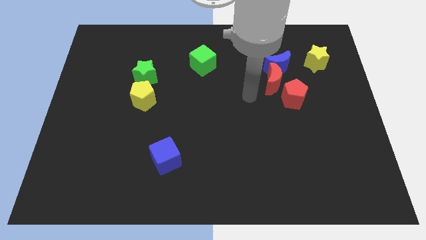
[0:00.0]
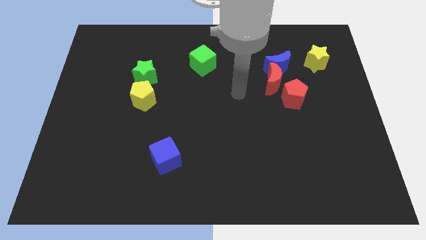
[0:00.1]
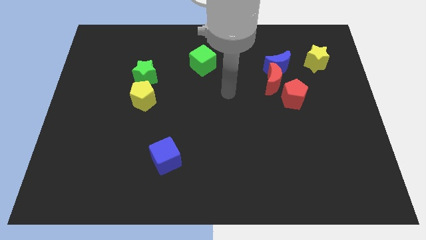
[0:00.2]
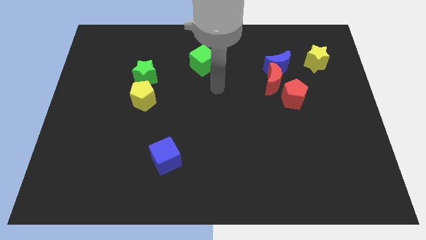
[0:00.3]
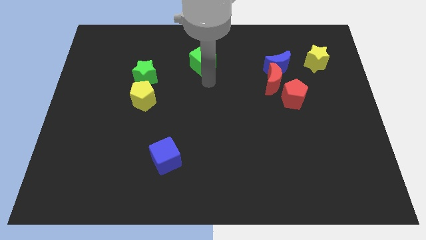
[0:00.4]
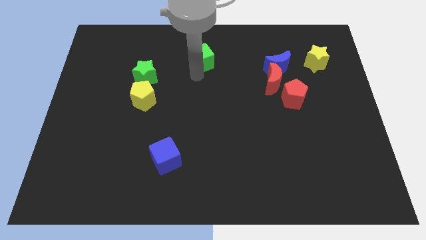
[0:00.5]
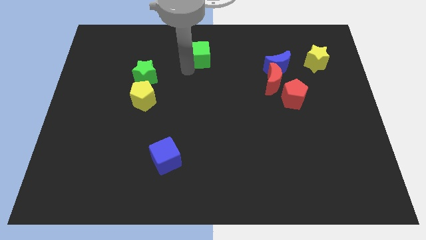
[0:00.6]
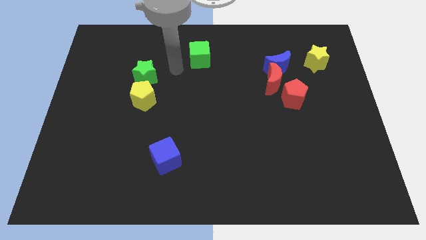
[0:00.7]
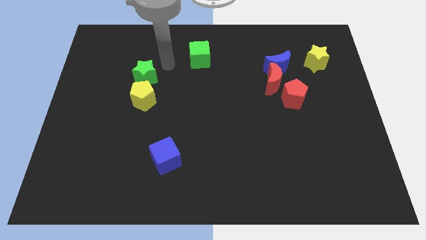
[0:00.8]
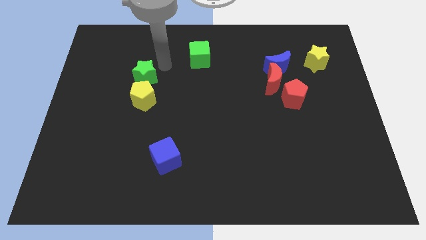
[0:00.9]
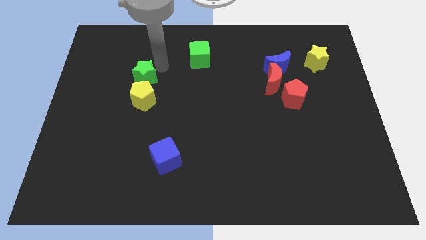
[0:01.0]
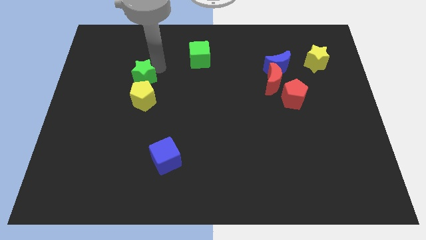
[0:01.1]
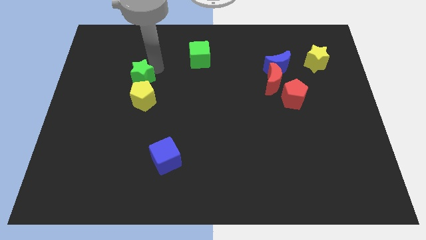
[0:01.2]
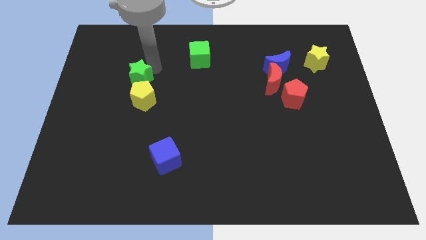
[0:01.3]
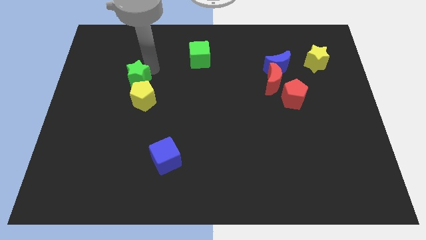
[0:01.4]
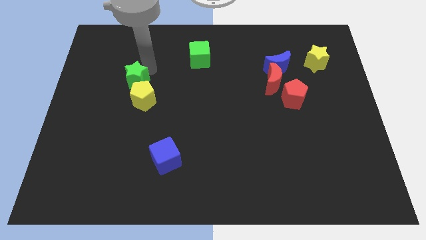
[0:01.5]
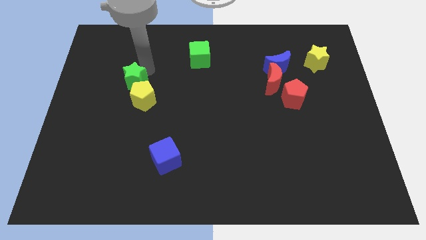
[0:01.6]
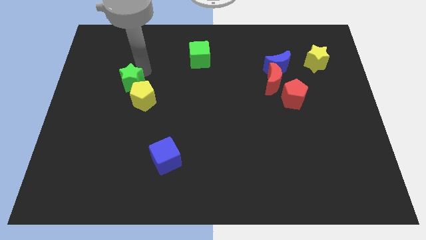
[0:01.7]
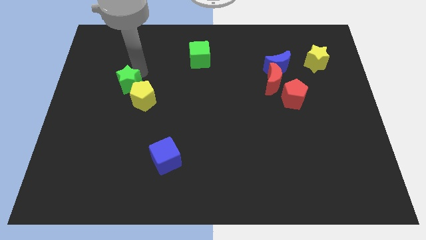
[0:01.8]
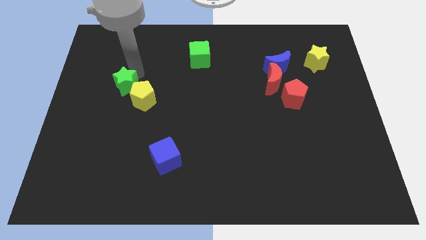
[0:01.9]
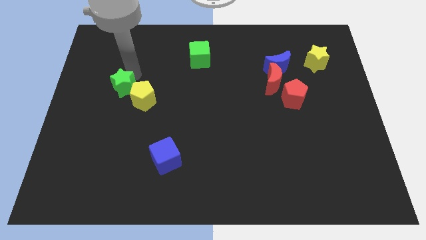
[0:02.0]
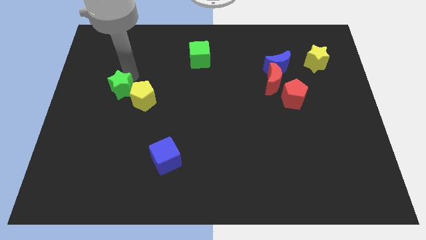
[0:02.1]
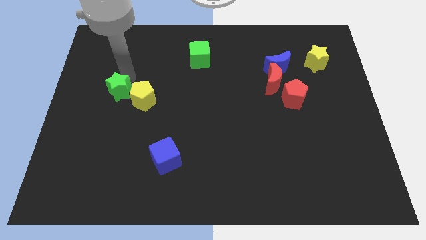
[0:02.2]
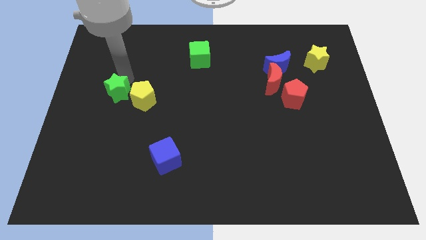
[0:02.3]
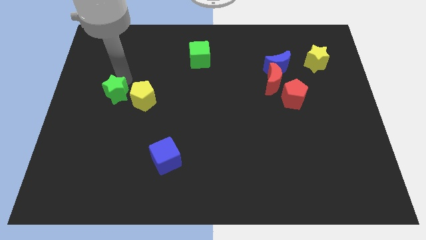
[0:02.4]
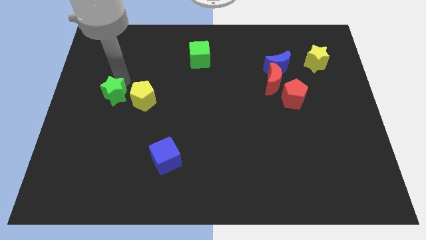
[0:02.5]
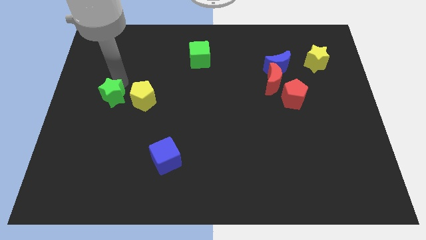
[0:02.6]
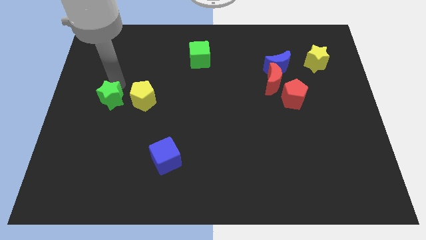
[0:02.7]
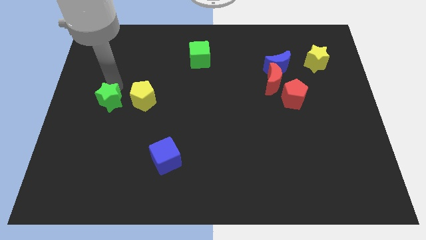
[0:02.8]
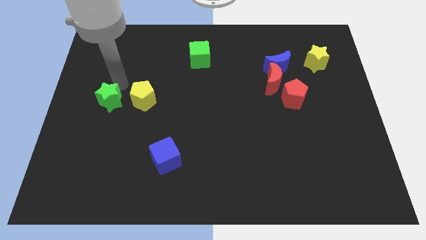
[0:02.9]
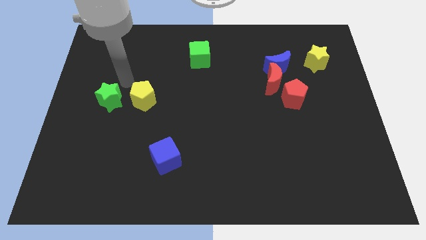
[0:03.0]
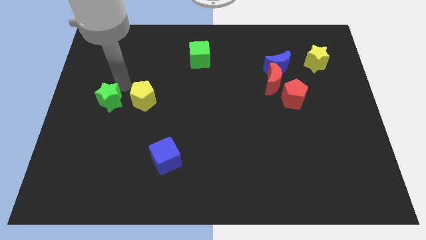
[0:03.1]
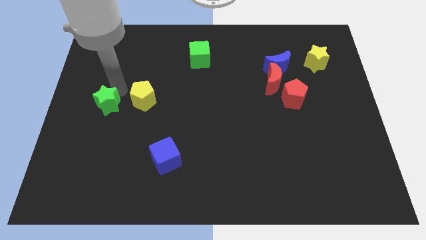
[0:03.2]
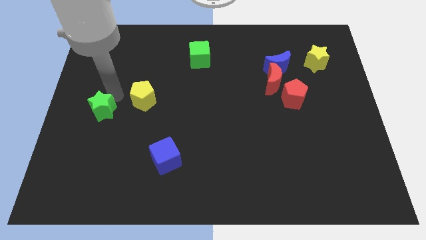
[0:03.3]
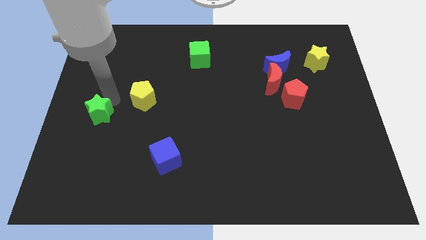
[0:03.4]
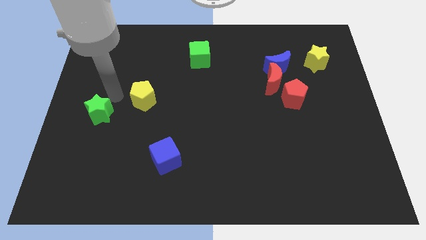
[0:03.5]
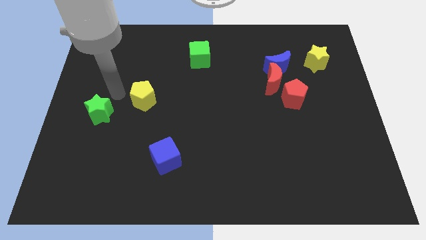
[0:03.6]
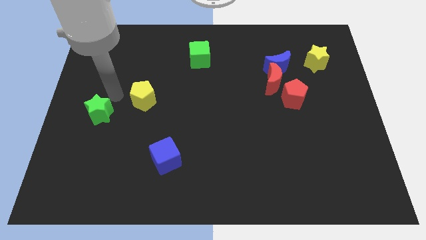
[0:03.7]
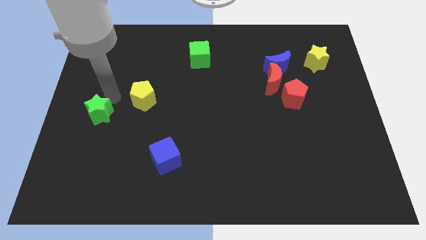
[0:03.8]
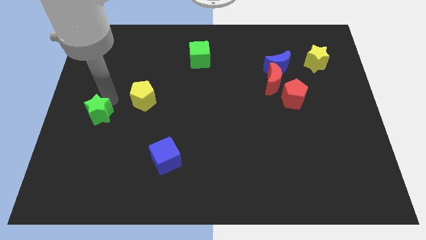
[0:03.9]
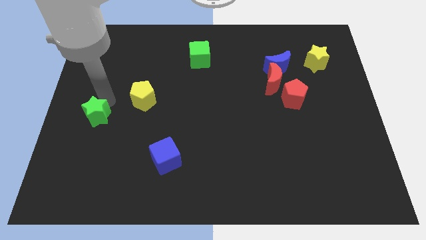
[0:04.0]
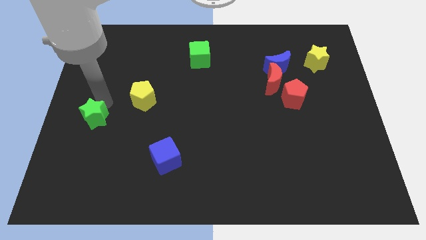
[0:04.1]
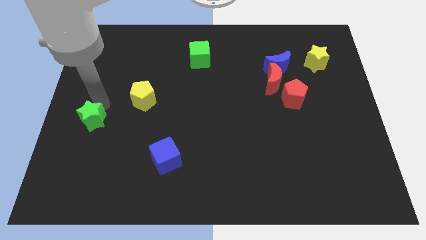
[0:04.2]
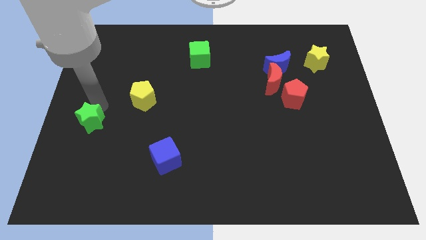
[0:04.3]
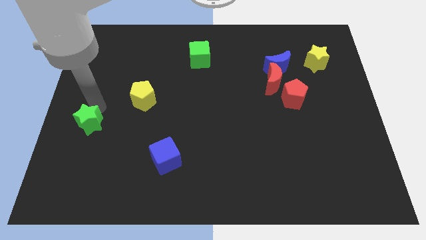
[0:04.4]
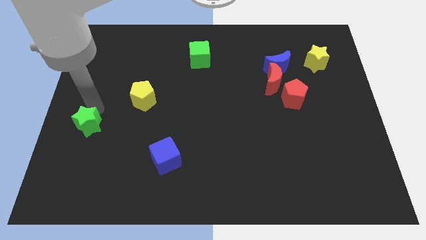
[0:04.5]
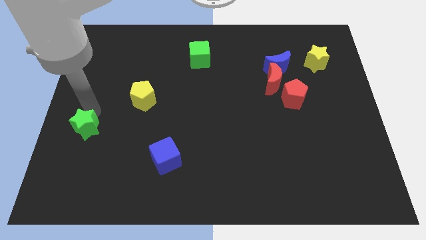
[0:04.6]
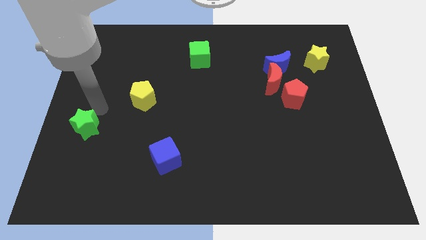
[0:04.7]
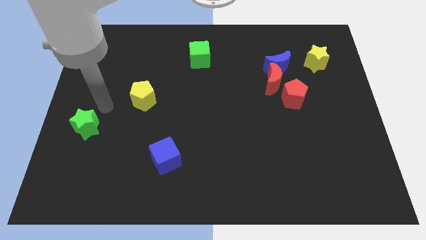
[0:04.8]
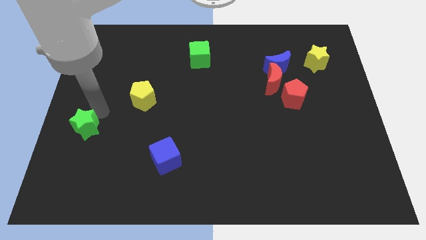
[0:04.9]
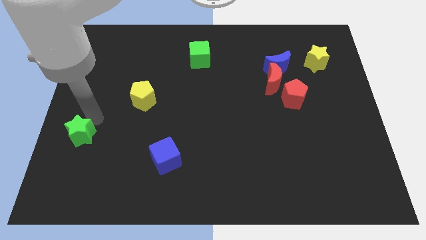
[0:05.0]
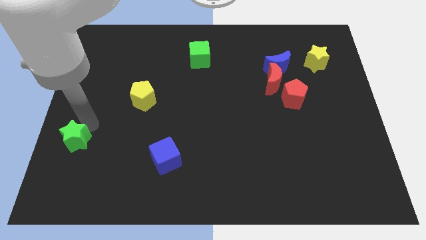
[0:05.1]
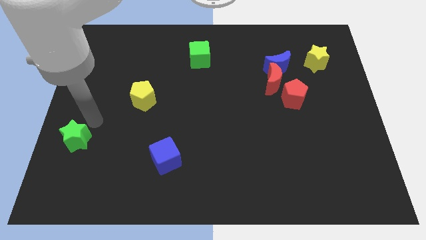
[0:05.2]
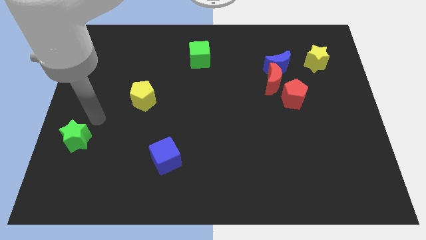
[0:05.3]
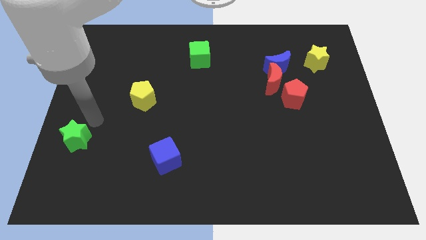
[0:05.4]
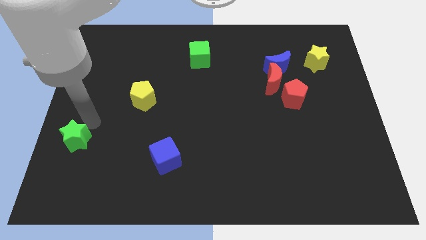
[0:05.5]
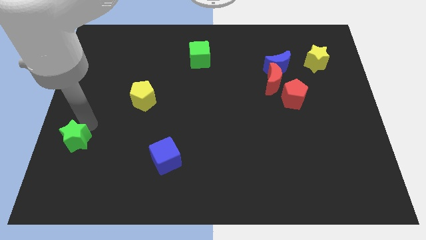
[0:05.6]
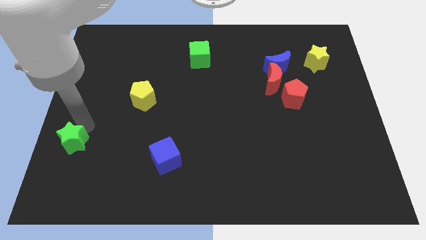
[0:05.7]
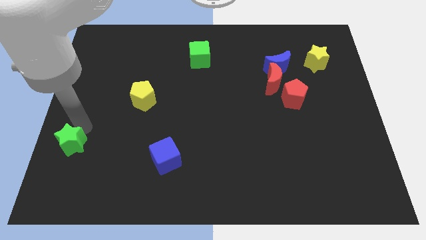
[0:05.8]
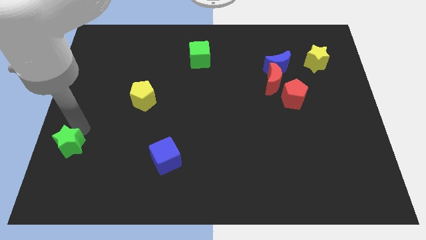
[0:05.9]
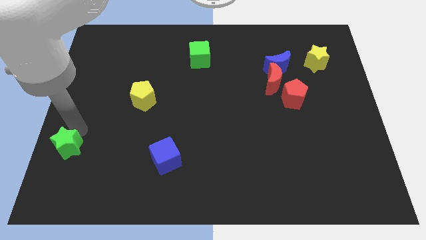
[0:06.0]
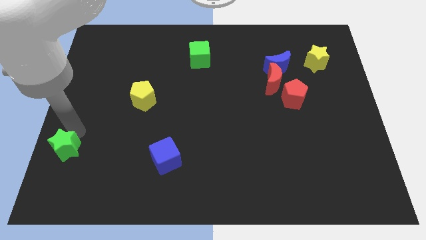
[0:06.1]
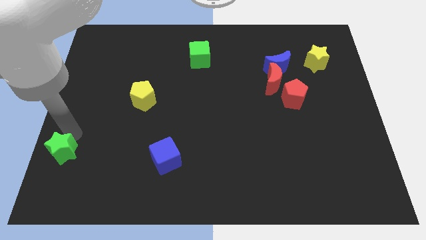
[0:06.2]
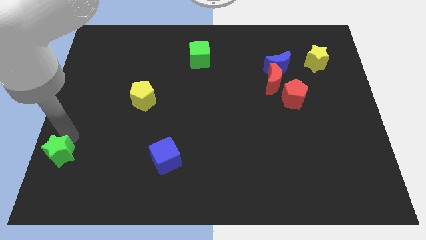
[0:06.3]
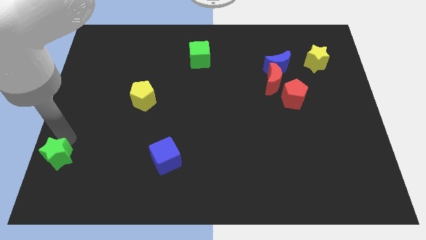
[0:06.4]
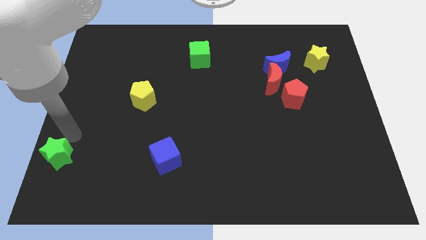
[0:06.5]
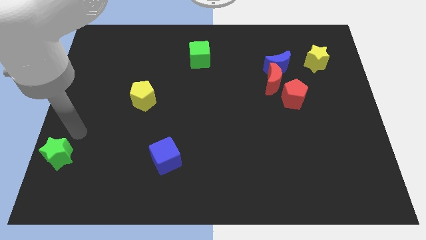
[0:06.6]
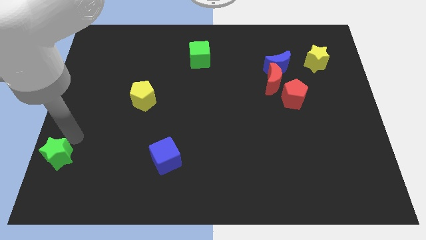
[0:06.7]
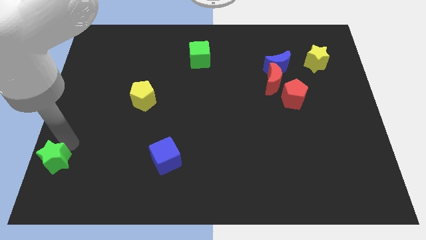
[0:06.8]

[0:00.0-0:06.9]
put the green star to the bottom left
